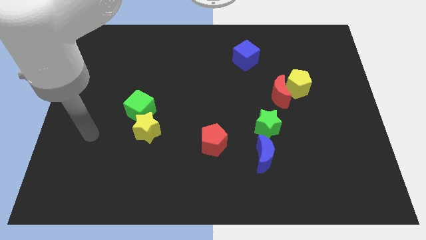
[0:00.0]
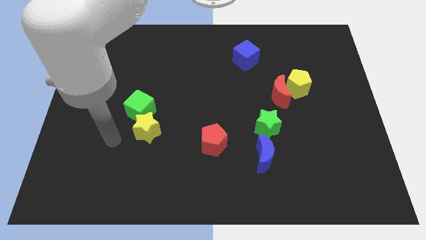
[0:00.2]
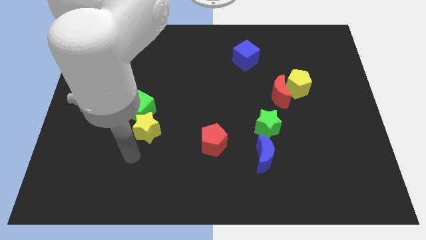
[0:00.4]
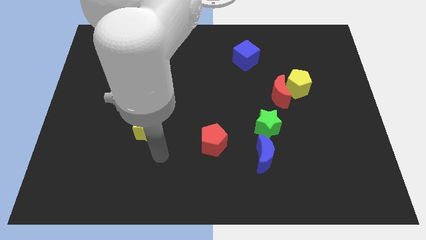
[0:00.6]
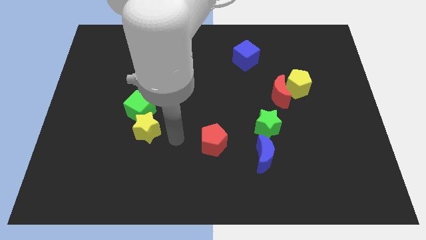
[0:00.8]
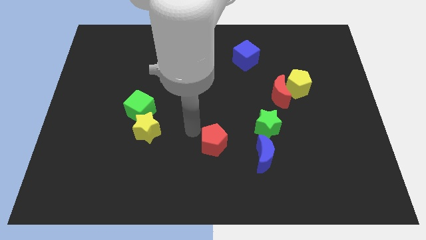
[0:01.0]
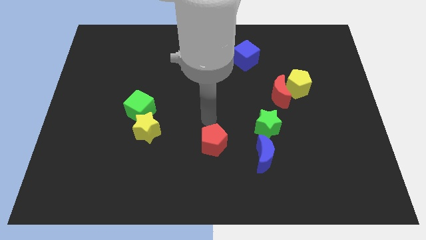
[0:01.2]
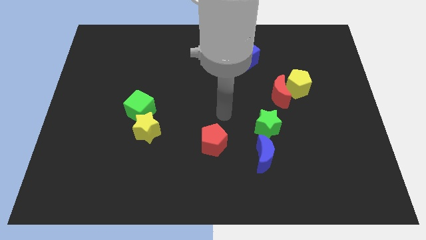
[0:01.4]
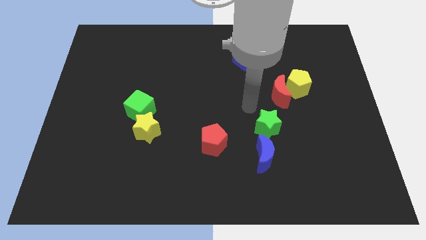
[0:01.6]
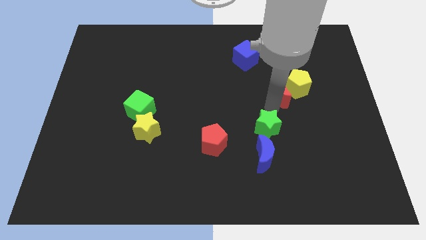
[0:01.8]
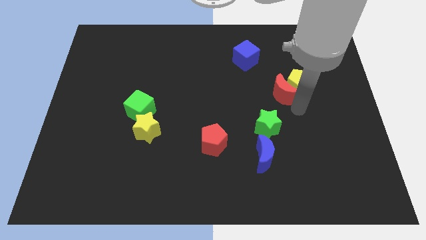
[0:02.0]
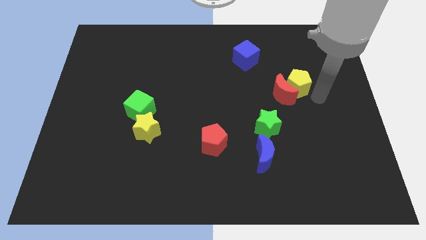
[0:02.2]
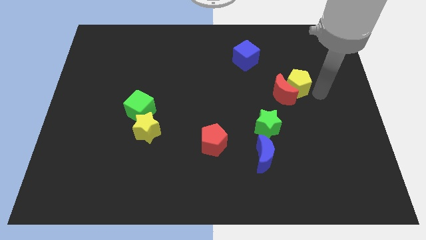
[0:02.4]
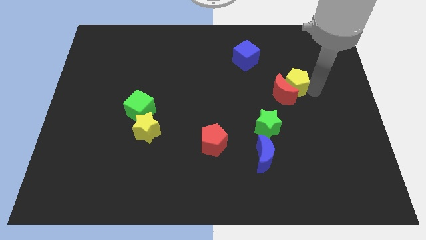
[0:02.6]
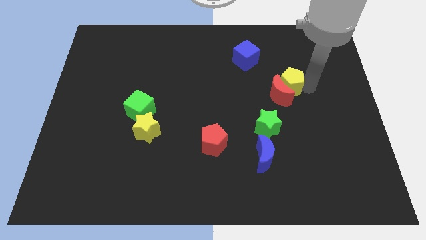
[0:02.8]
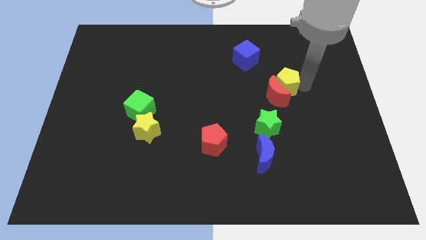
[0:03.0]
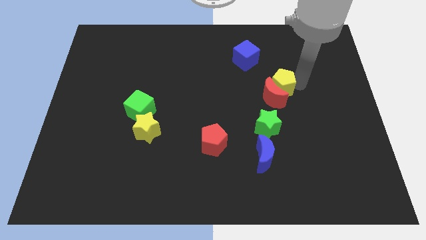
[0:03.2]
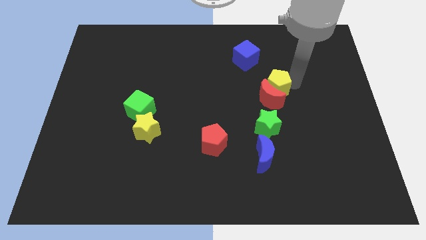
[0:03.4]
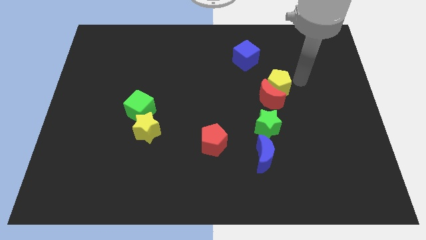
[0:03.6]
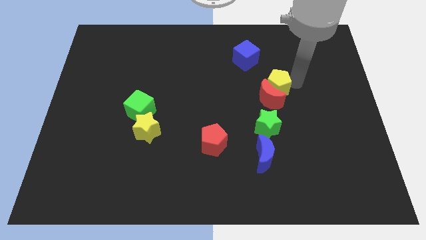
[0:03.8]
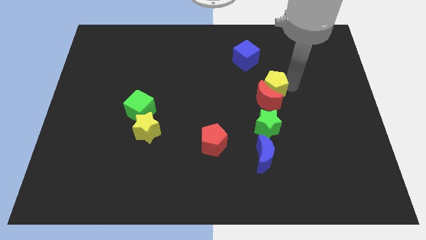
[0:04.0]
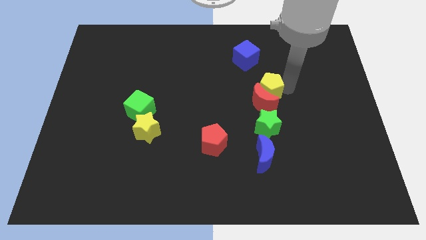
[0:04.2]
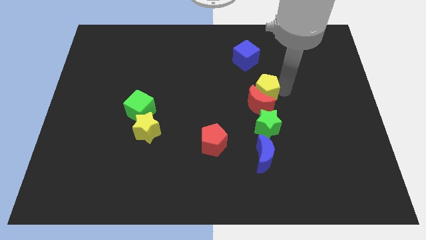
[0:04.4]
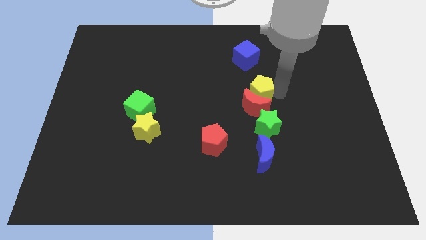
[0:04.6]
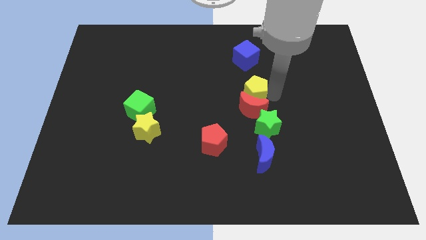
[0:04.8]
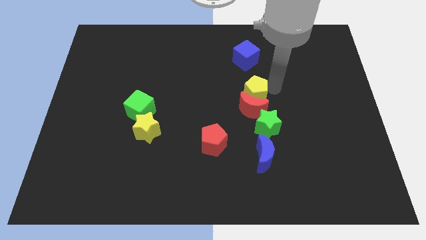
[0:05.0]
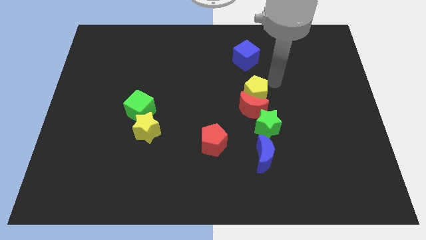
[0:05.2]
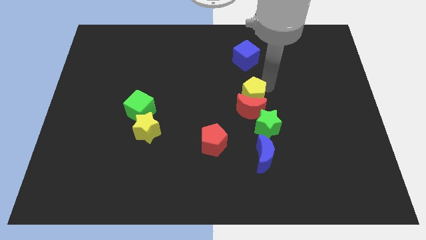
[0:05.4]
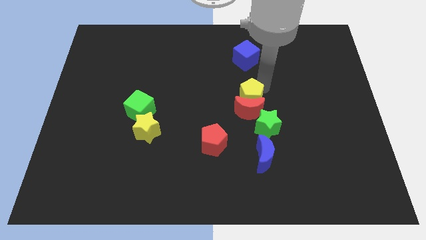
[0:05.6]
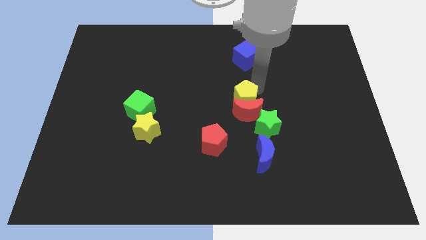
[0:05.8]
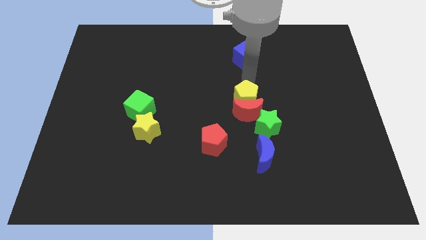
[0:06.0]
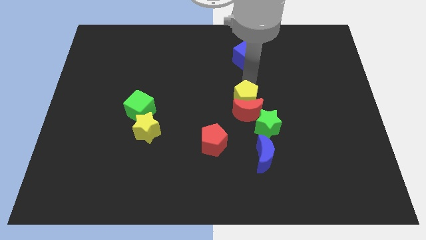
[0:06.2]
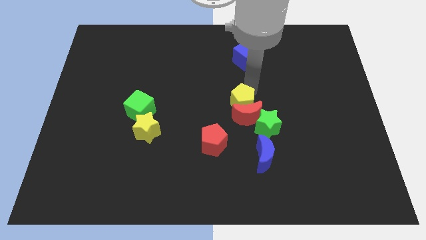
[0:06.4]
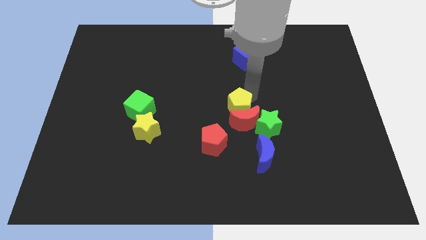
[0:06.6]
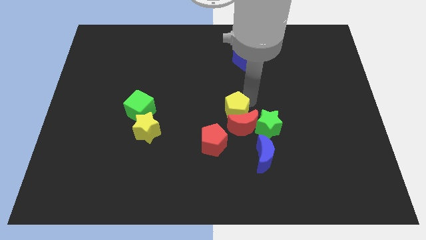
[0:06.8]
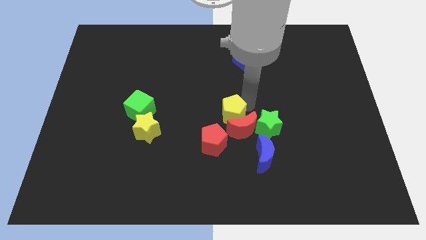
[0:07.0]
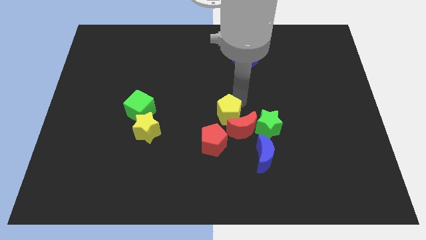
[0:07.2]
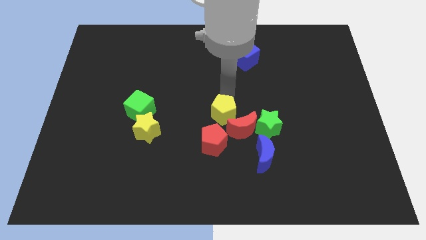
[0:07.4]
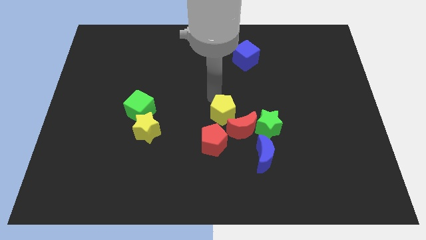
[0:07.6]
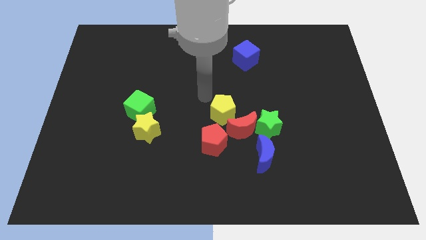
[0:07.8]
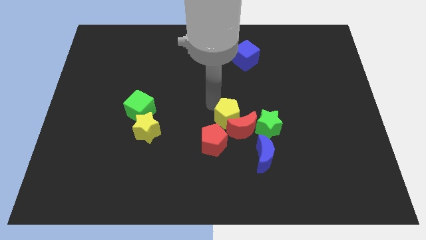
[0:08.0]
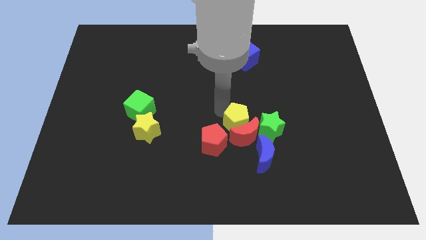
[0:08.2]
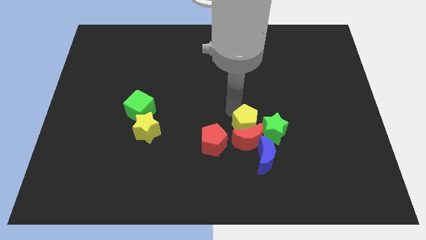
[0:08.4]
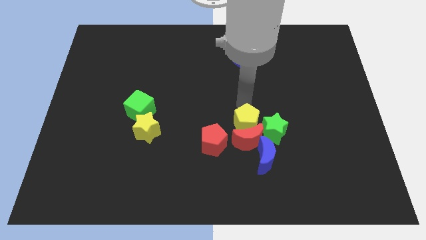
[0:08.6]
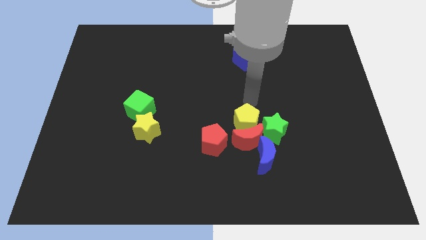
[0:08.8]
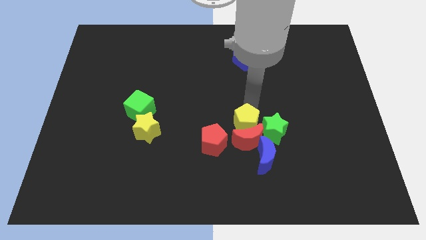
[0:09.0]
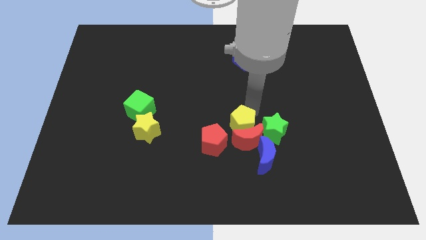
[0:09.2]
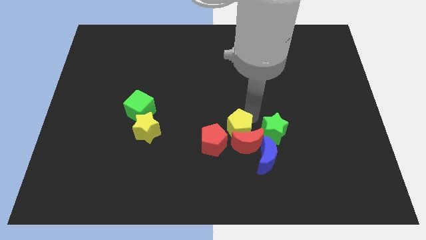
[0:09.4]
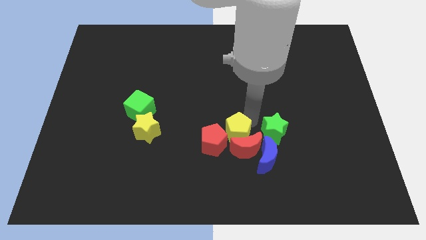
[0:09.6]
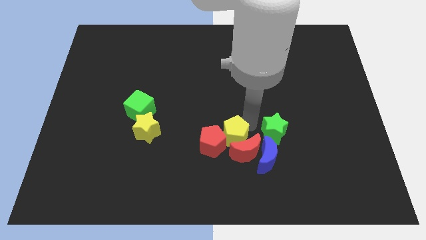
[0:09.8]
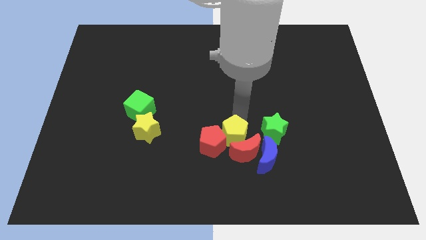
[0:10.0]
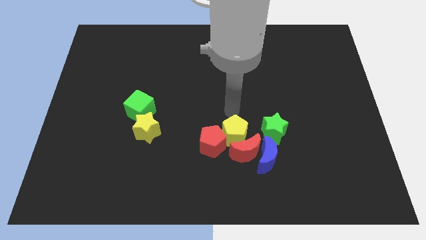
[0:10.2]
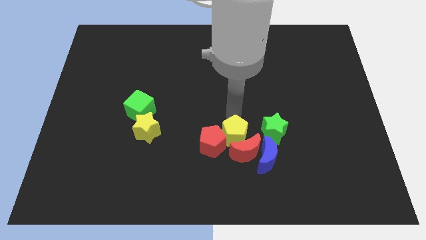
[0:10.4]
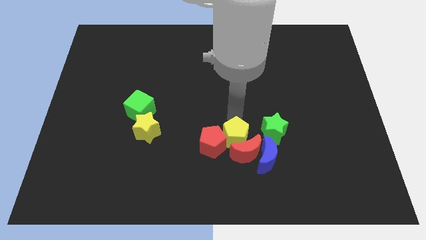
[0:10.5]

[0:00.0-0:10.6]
move the yellow pentagon diagonally down and to the right of the red pentagon

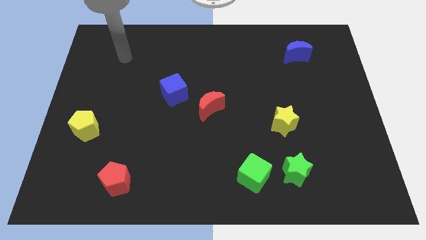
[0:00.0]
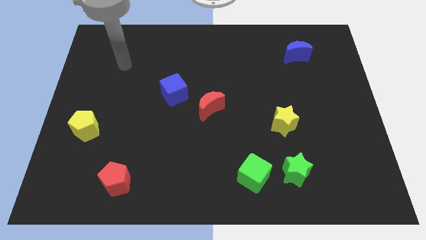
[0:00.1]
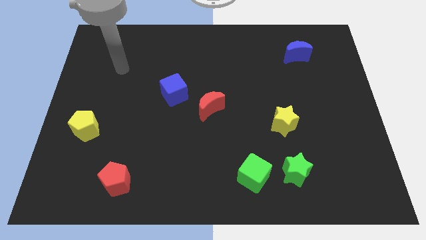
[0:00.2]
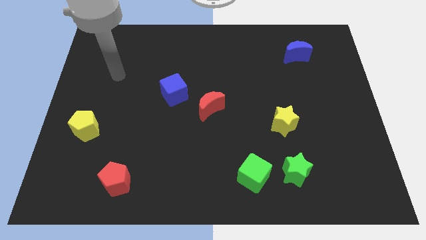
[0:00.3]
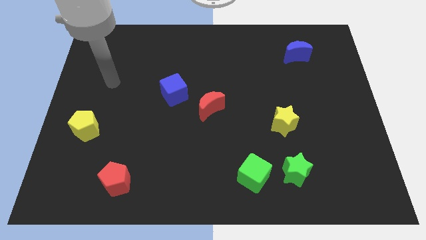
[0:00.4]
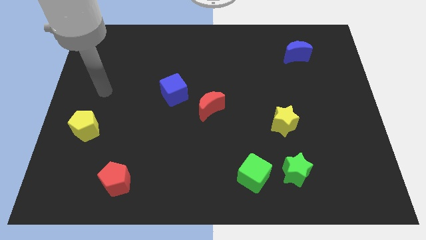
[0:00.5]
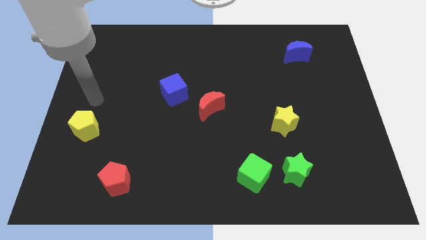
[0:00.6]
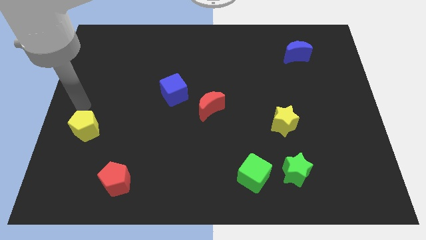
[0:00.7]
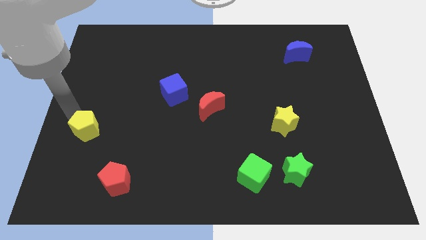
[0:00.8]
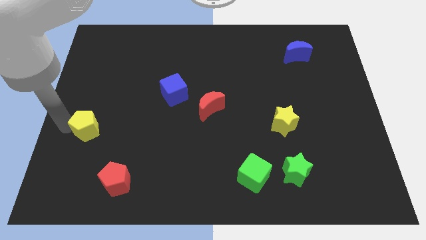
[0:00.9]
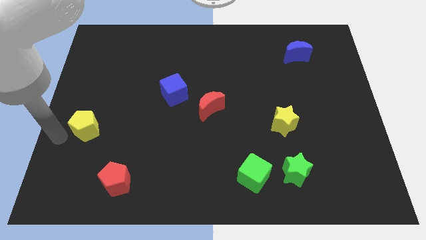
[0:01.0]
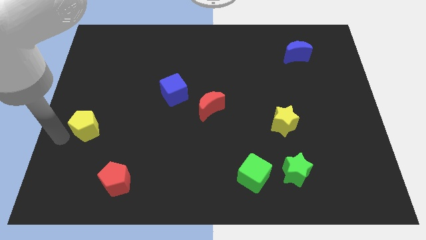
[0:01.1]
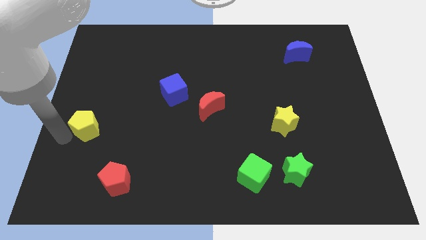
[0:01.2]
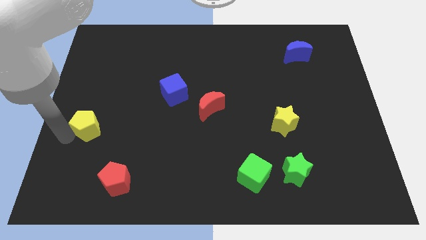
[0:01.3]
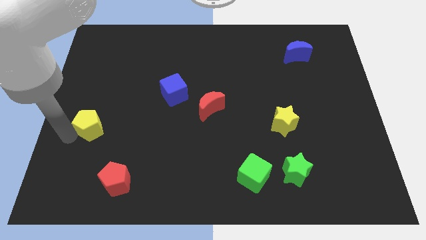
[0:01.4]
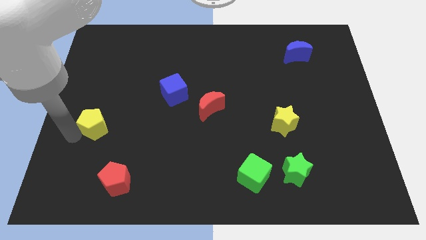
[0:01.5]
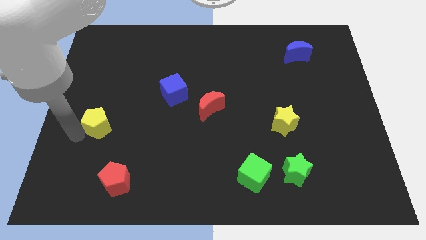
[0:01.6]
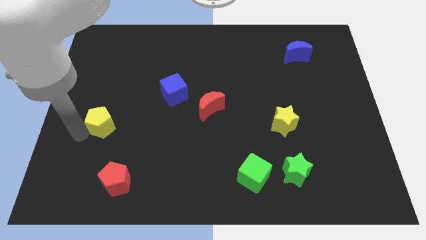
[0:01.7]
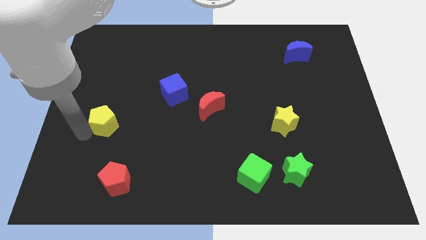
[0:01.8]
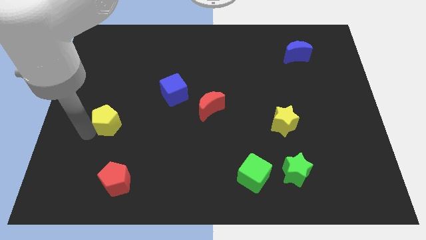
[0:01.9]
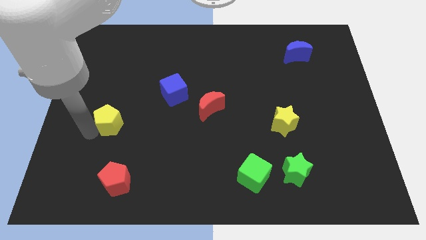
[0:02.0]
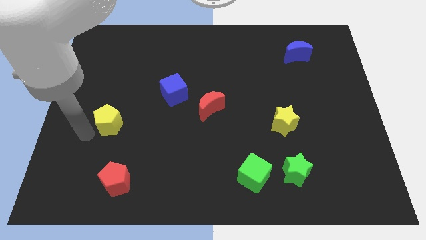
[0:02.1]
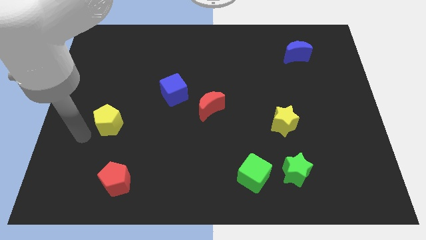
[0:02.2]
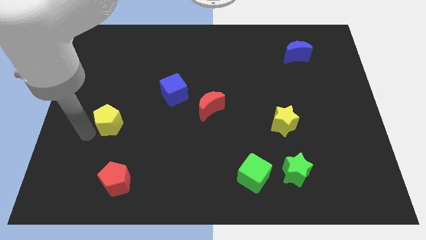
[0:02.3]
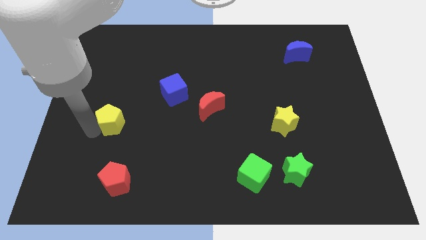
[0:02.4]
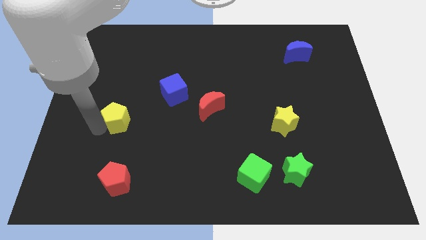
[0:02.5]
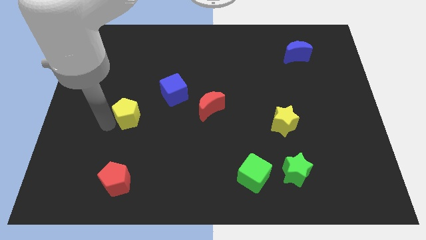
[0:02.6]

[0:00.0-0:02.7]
put the yellow pentagon to the bottom left of the blue cube
